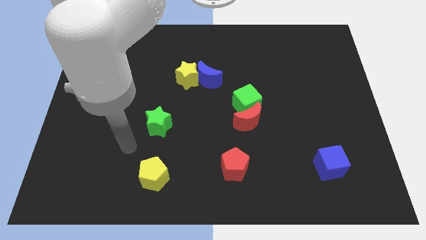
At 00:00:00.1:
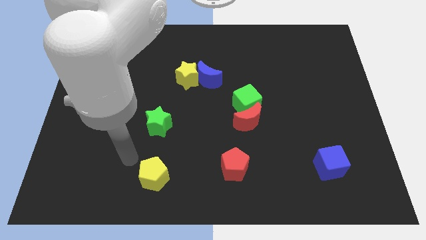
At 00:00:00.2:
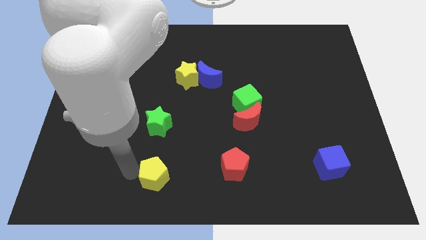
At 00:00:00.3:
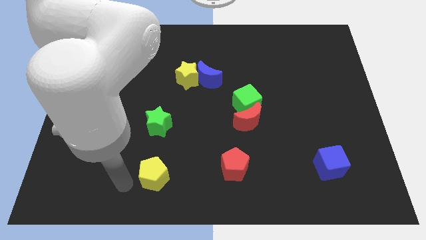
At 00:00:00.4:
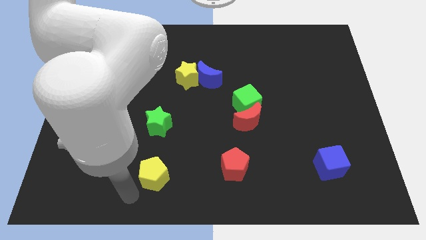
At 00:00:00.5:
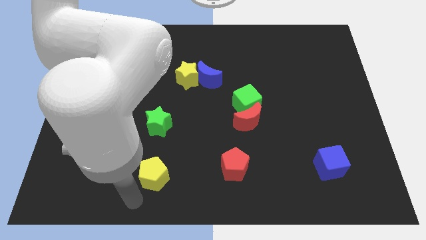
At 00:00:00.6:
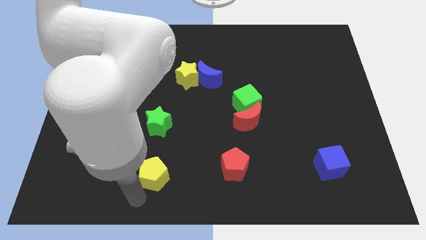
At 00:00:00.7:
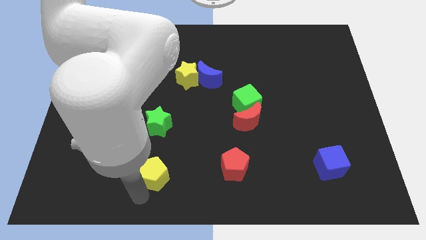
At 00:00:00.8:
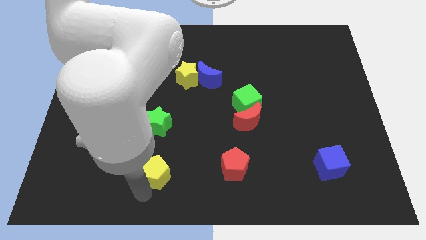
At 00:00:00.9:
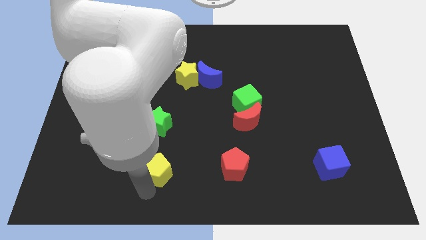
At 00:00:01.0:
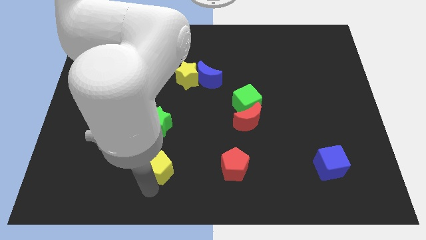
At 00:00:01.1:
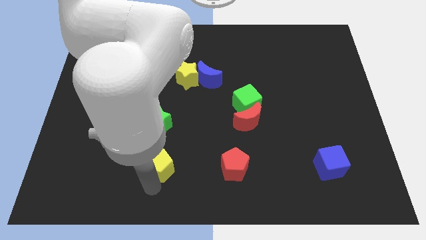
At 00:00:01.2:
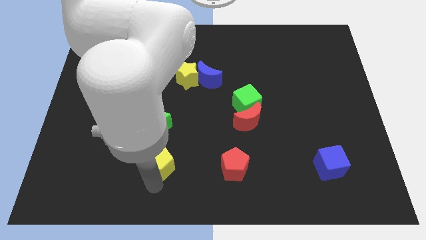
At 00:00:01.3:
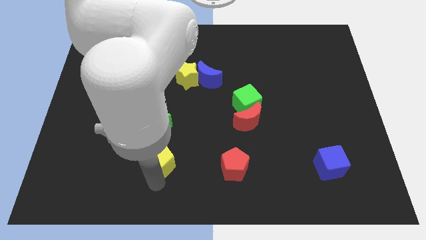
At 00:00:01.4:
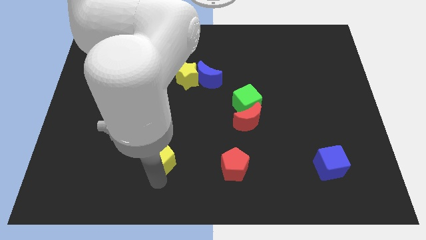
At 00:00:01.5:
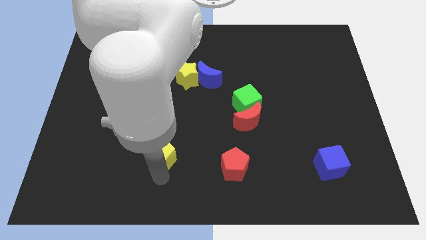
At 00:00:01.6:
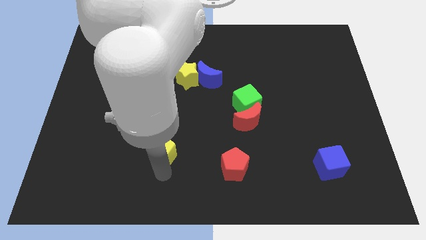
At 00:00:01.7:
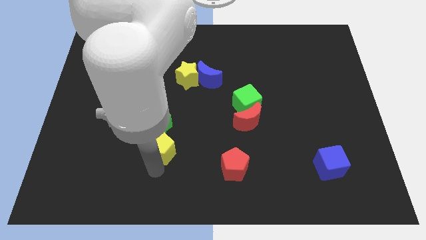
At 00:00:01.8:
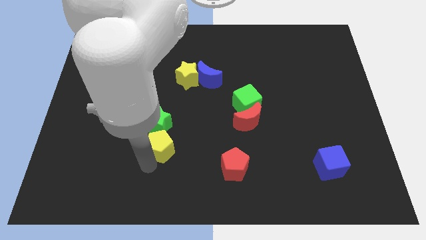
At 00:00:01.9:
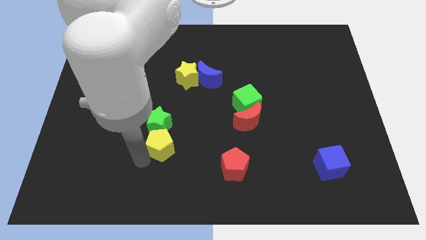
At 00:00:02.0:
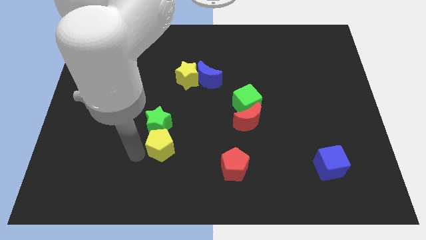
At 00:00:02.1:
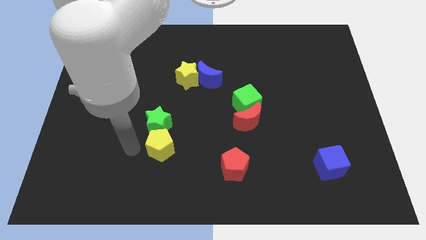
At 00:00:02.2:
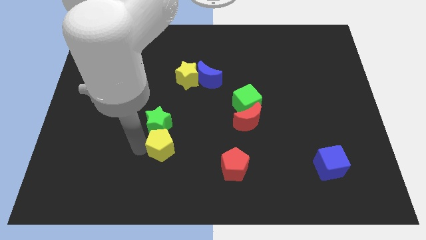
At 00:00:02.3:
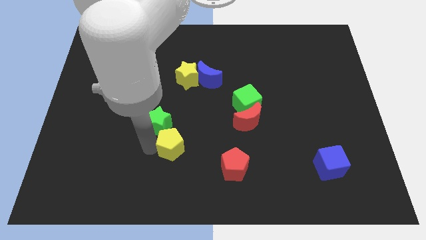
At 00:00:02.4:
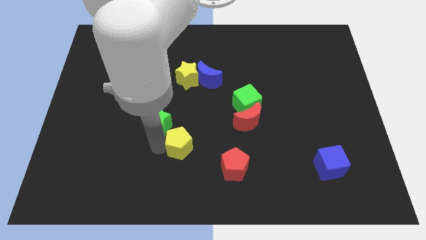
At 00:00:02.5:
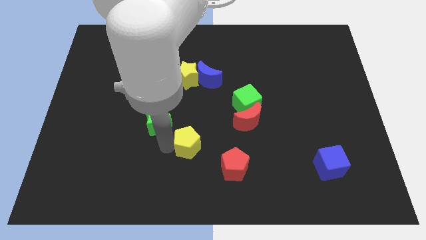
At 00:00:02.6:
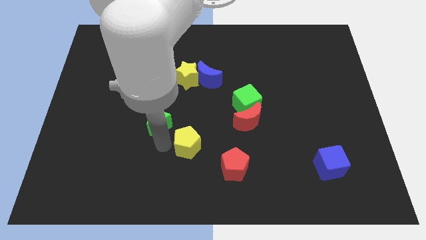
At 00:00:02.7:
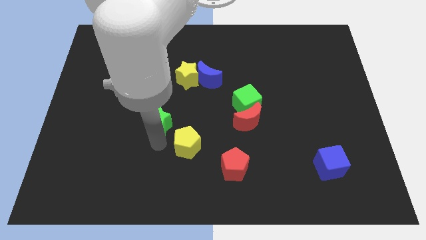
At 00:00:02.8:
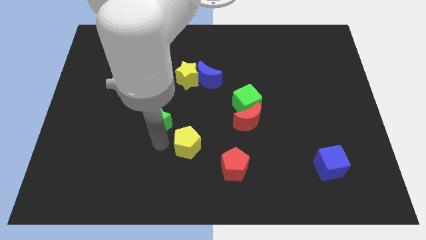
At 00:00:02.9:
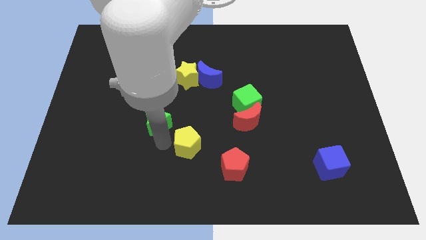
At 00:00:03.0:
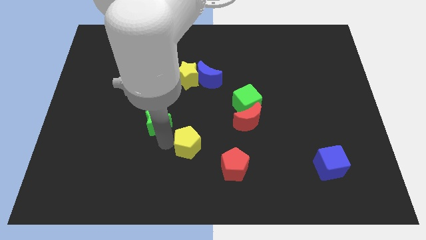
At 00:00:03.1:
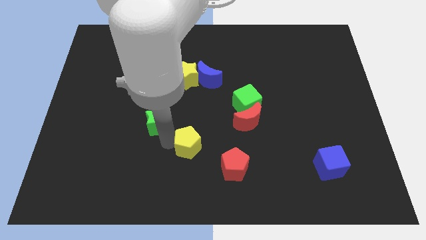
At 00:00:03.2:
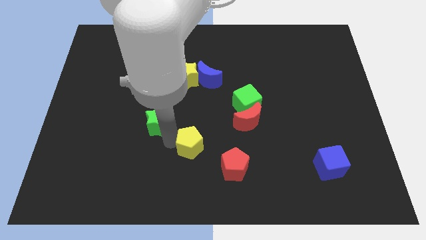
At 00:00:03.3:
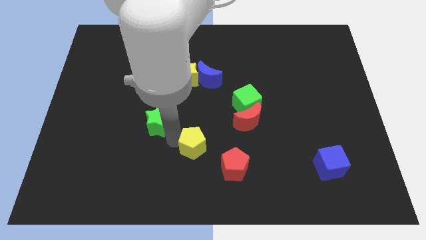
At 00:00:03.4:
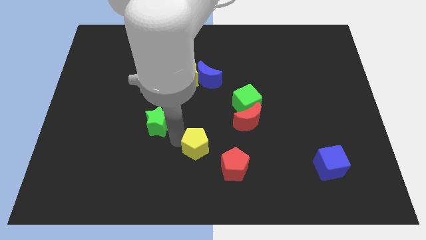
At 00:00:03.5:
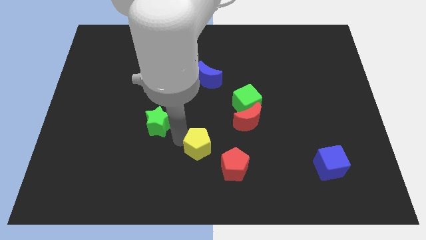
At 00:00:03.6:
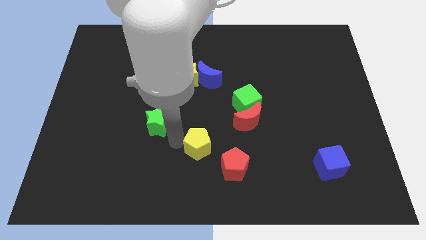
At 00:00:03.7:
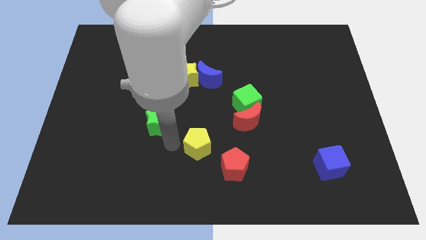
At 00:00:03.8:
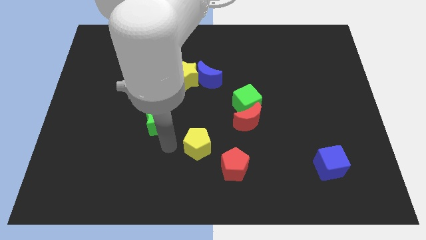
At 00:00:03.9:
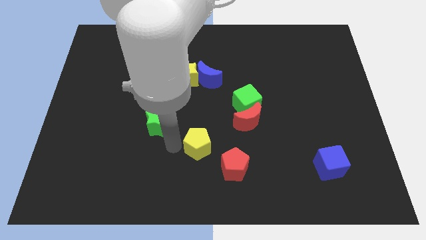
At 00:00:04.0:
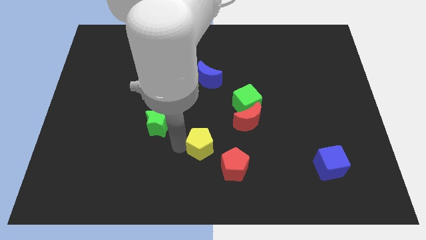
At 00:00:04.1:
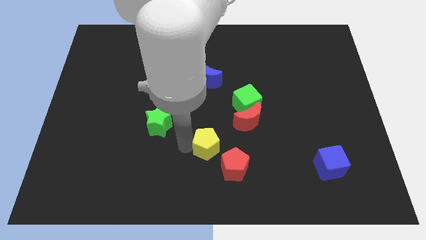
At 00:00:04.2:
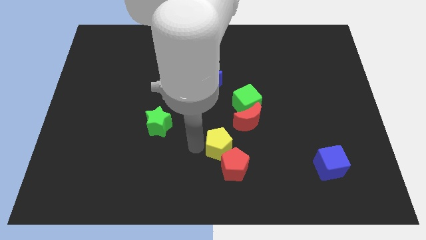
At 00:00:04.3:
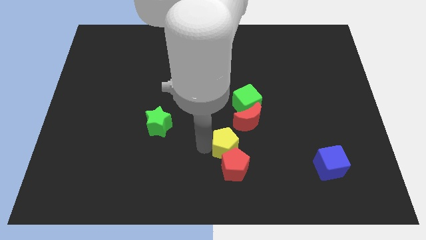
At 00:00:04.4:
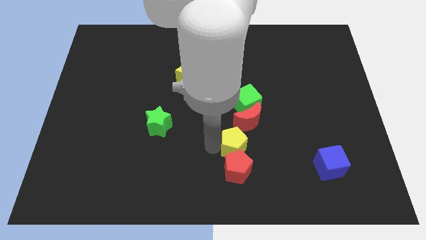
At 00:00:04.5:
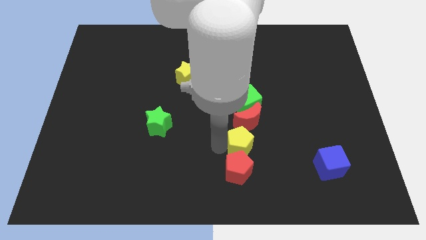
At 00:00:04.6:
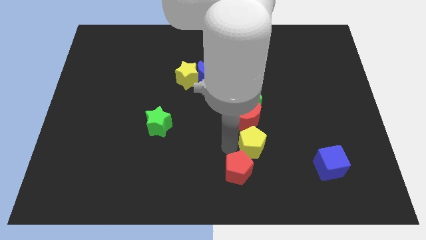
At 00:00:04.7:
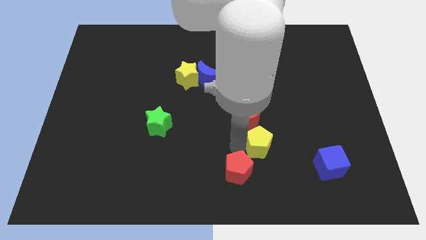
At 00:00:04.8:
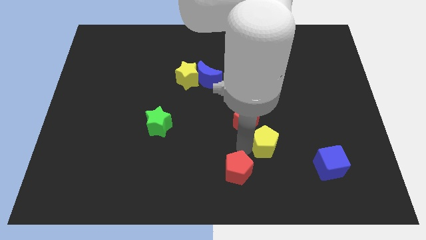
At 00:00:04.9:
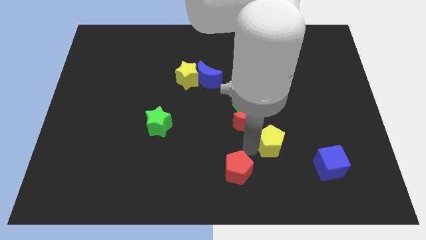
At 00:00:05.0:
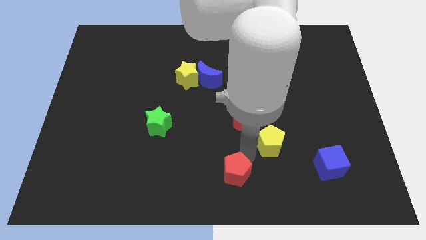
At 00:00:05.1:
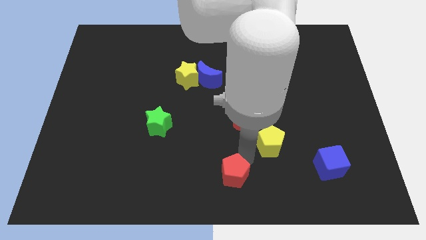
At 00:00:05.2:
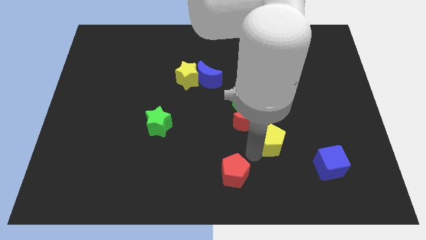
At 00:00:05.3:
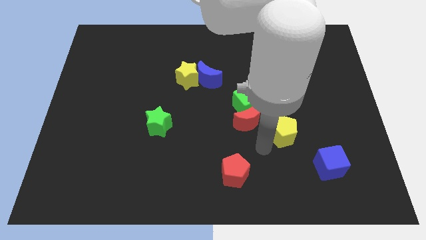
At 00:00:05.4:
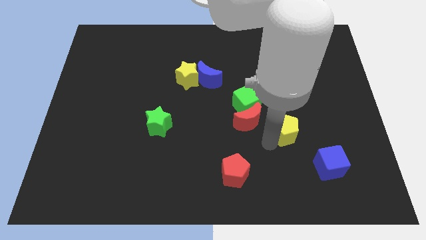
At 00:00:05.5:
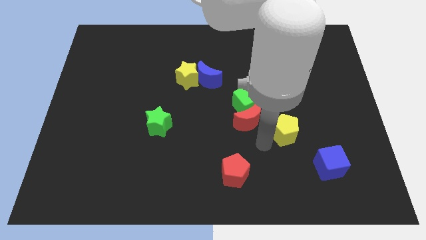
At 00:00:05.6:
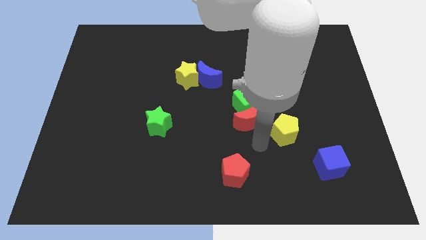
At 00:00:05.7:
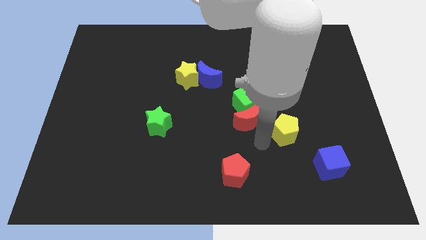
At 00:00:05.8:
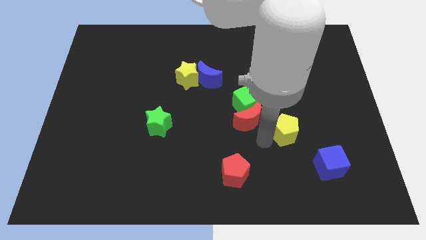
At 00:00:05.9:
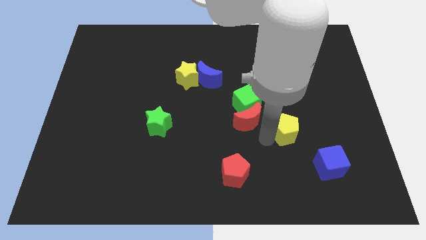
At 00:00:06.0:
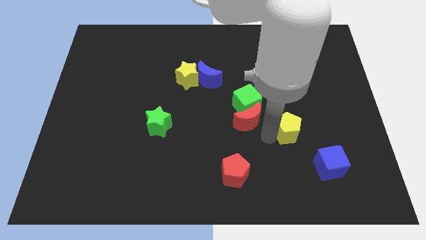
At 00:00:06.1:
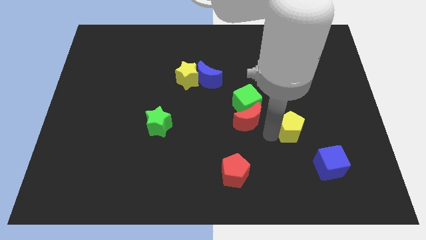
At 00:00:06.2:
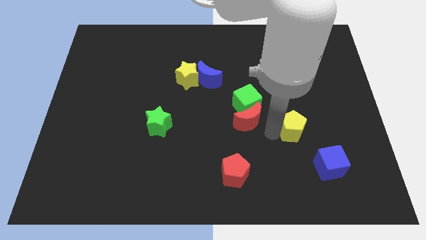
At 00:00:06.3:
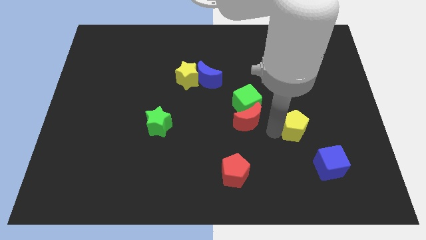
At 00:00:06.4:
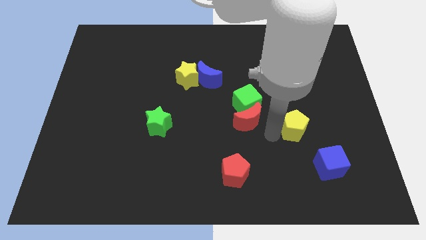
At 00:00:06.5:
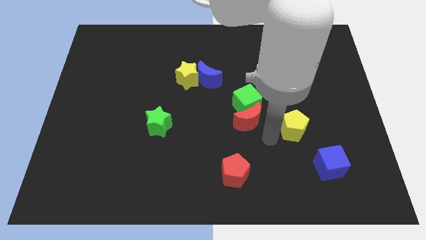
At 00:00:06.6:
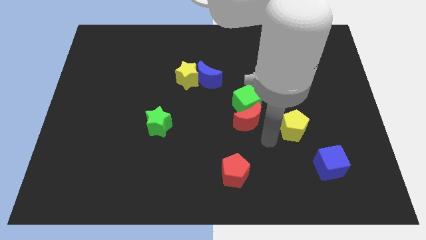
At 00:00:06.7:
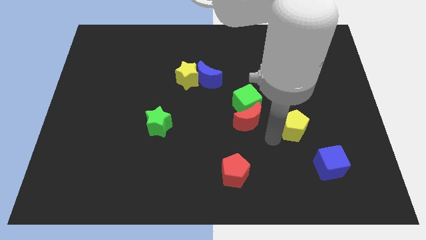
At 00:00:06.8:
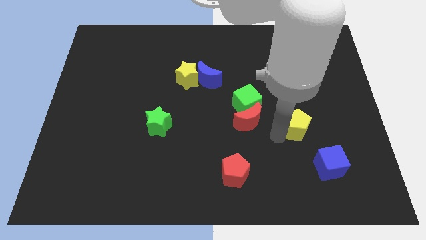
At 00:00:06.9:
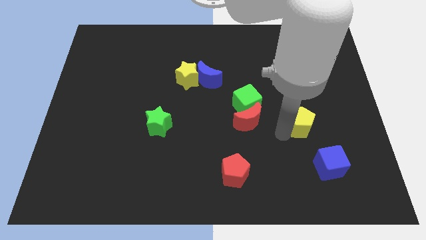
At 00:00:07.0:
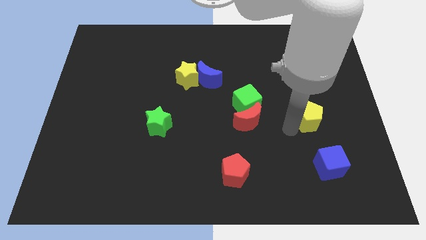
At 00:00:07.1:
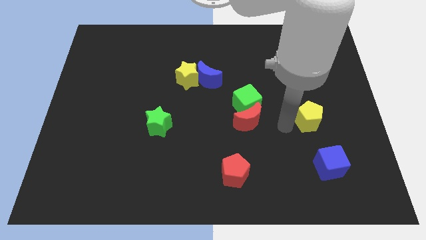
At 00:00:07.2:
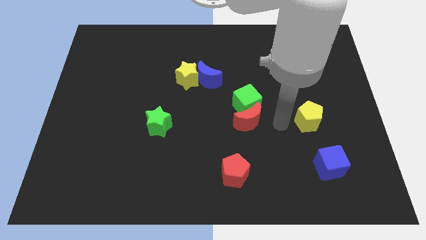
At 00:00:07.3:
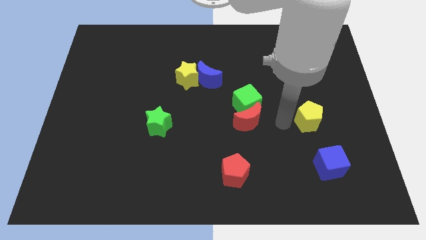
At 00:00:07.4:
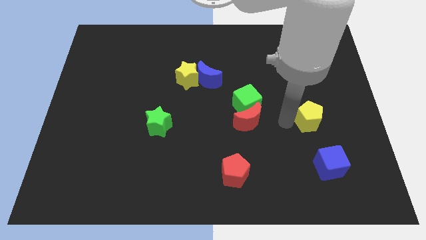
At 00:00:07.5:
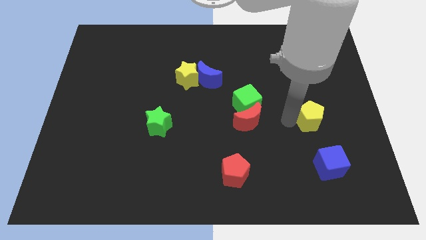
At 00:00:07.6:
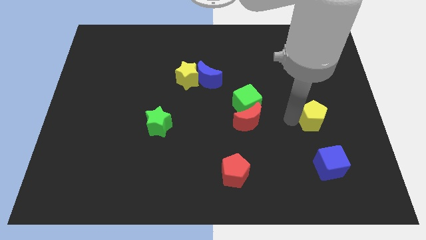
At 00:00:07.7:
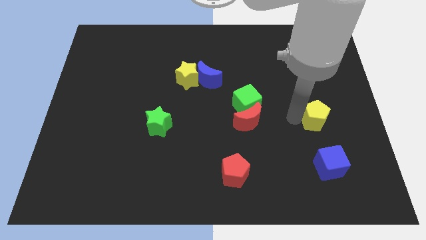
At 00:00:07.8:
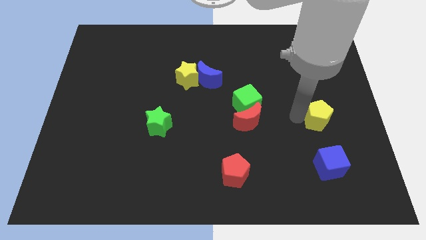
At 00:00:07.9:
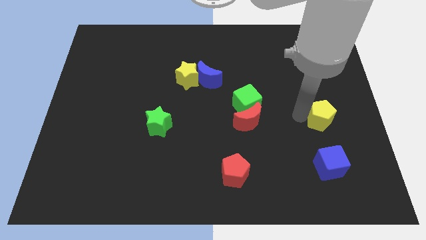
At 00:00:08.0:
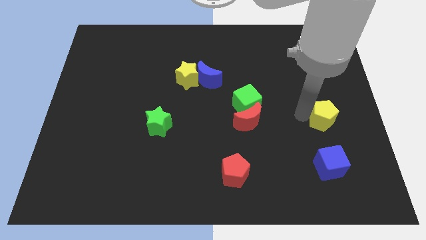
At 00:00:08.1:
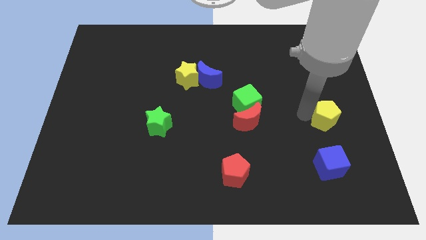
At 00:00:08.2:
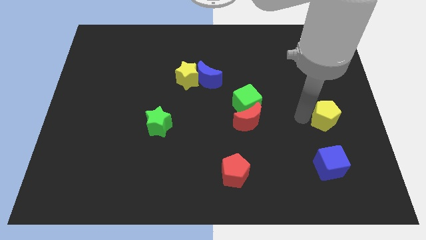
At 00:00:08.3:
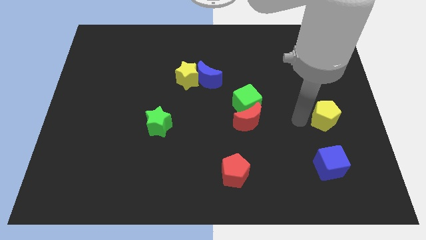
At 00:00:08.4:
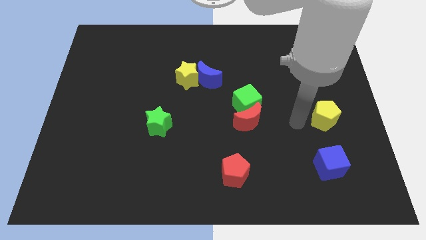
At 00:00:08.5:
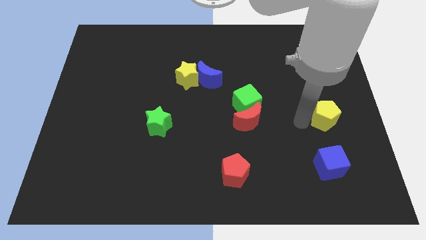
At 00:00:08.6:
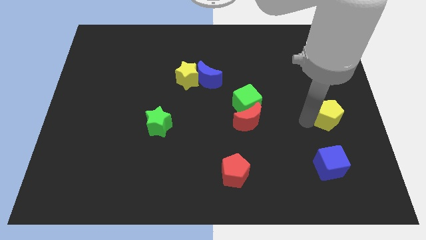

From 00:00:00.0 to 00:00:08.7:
put the yellow pentagon to the center right
